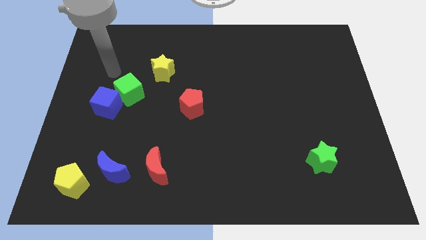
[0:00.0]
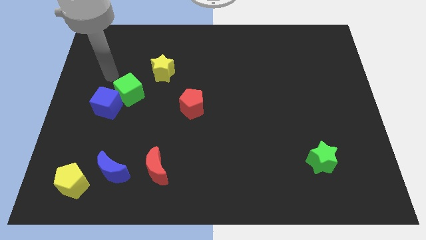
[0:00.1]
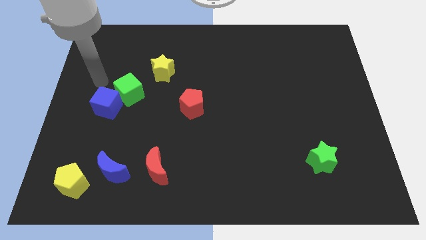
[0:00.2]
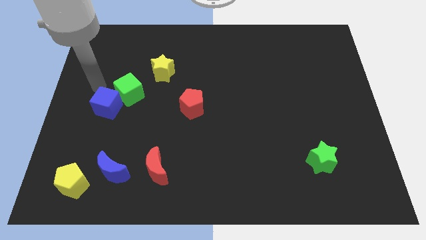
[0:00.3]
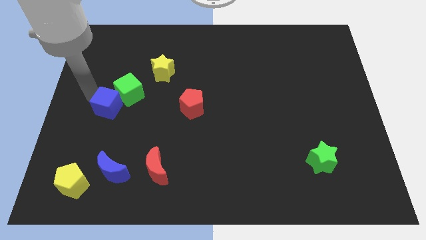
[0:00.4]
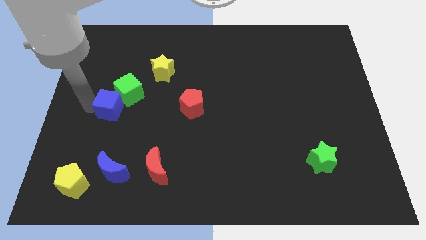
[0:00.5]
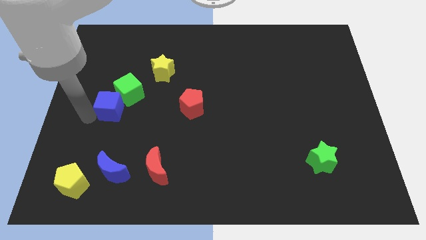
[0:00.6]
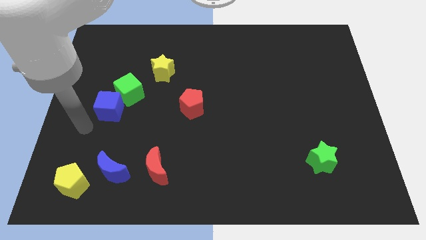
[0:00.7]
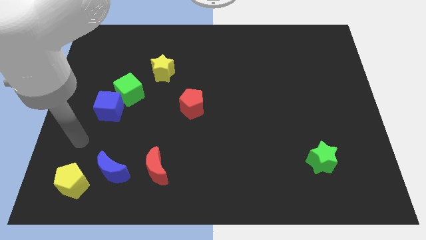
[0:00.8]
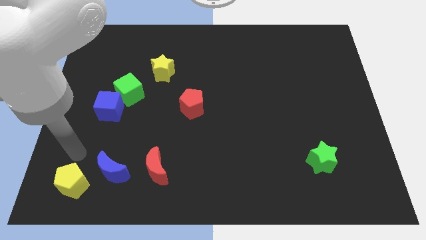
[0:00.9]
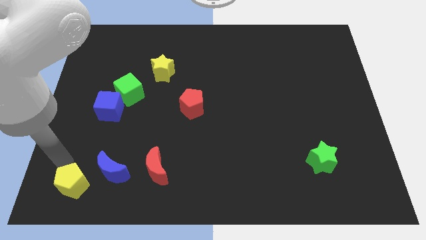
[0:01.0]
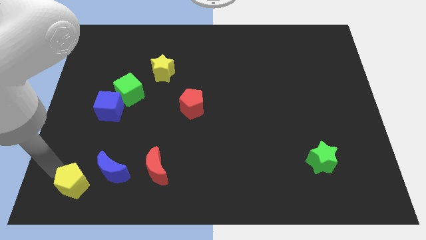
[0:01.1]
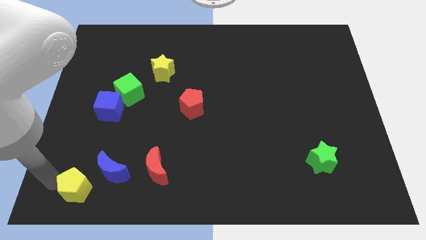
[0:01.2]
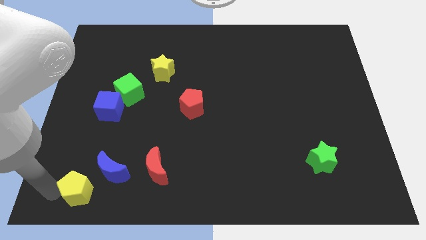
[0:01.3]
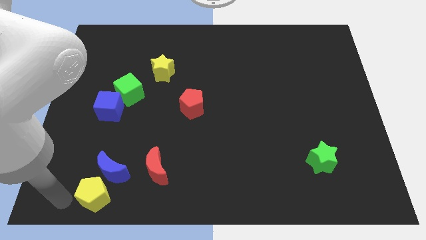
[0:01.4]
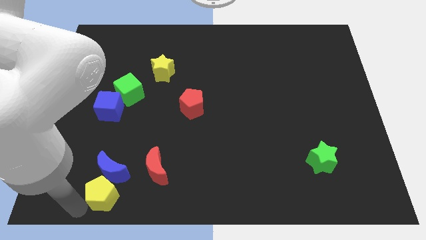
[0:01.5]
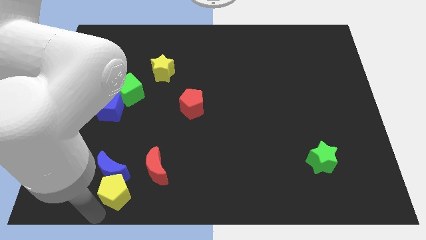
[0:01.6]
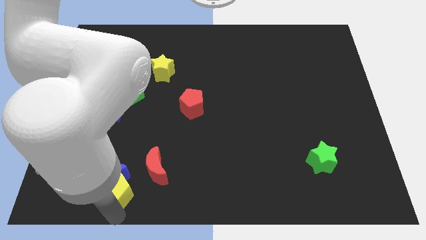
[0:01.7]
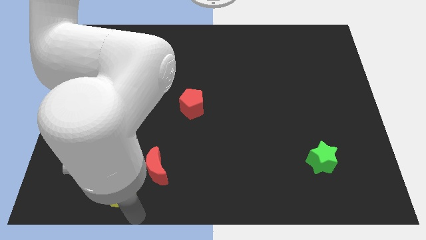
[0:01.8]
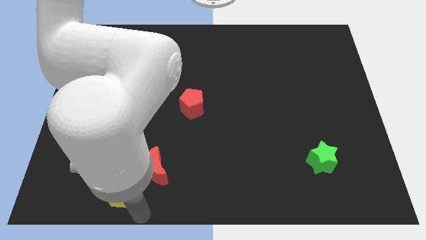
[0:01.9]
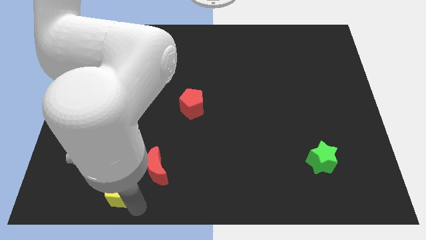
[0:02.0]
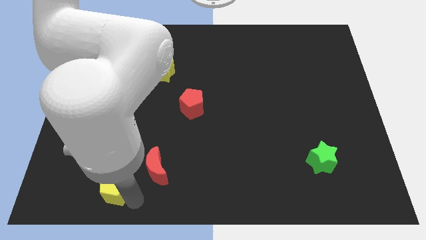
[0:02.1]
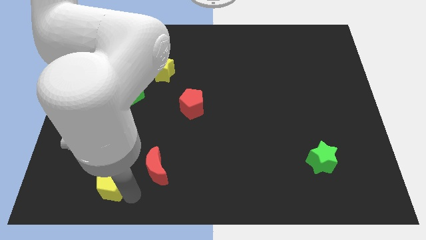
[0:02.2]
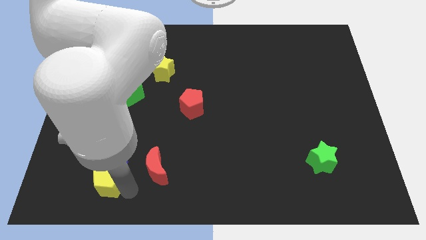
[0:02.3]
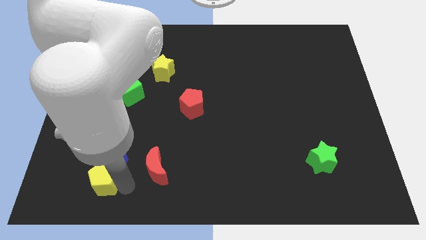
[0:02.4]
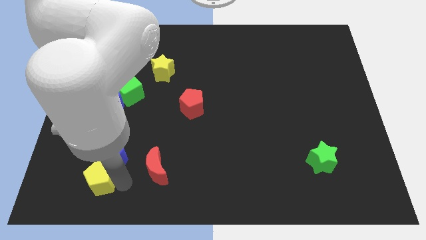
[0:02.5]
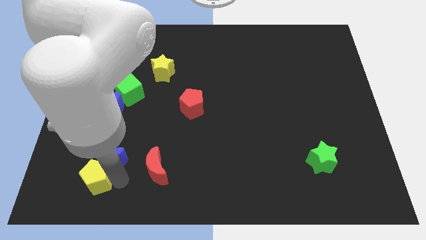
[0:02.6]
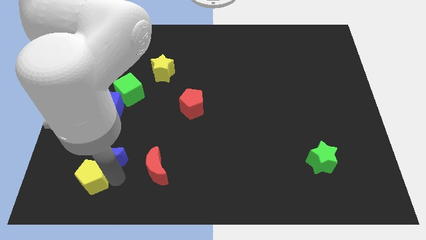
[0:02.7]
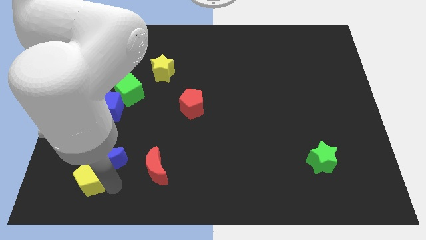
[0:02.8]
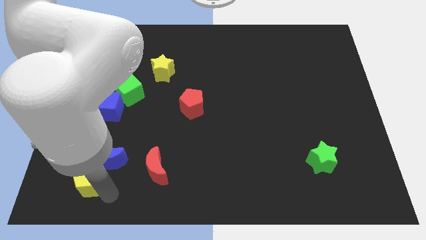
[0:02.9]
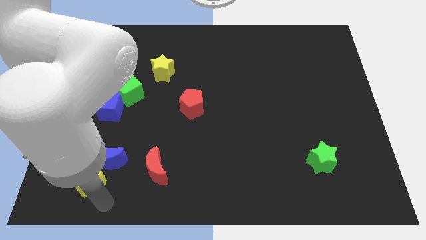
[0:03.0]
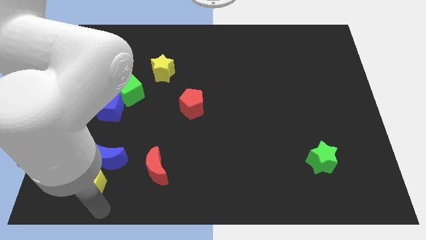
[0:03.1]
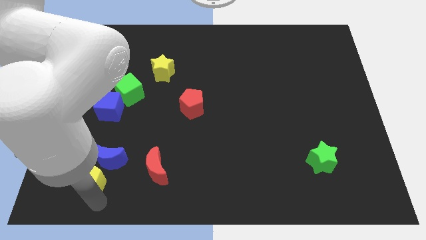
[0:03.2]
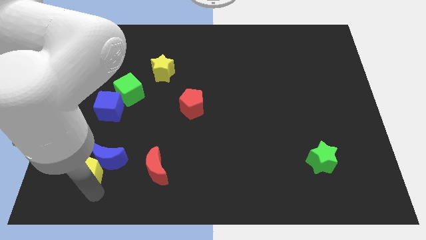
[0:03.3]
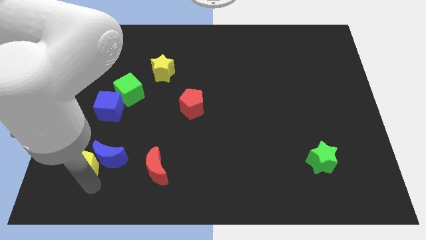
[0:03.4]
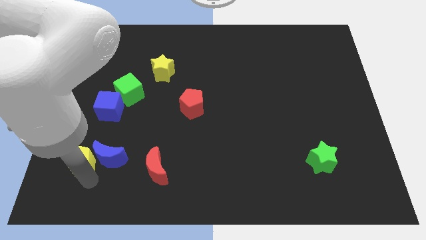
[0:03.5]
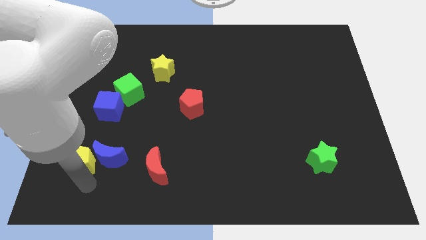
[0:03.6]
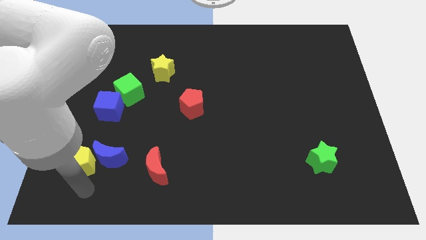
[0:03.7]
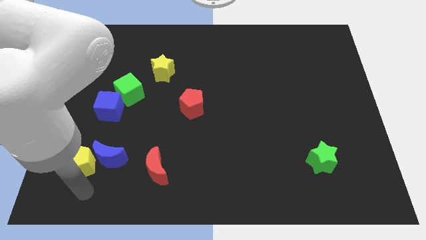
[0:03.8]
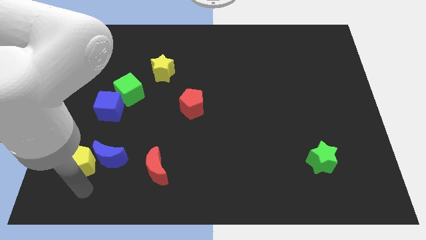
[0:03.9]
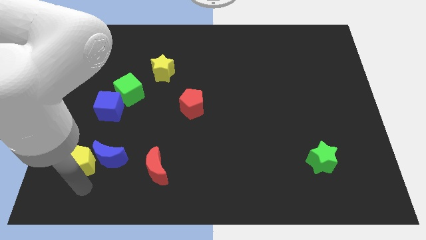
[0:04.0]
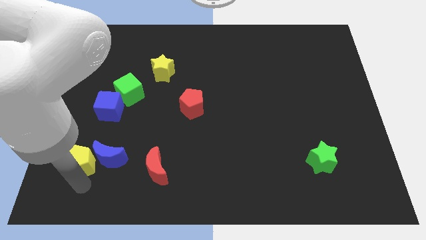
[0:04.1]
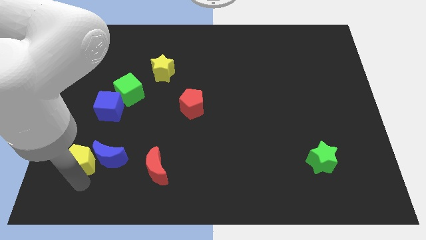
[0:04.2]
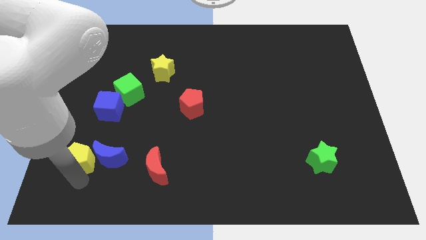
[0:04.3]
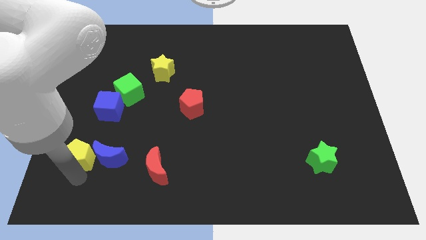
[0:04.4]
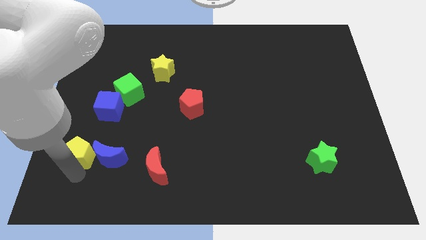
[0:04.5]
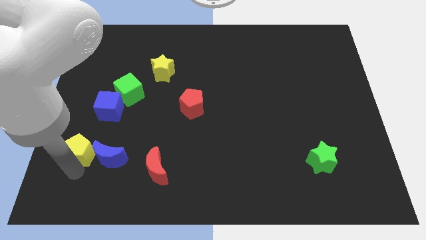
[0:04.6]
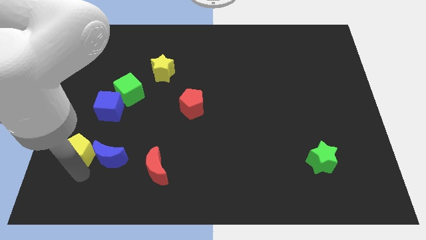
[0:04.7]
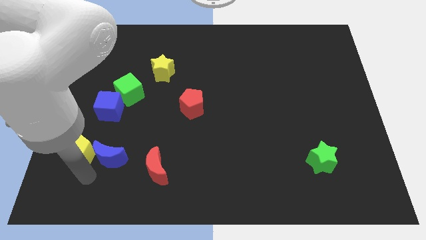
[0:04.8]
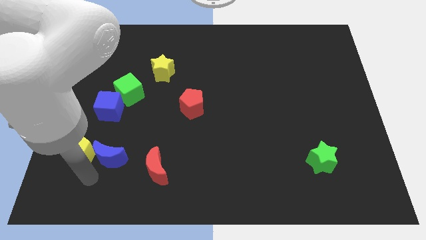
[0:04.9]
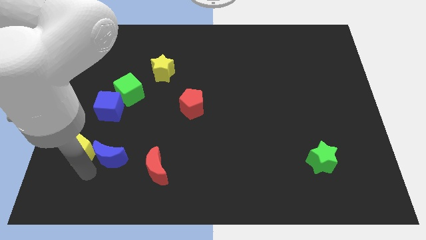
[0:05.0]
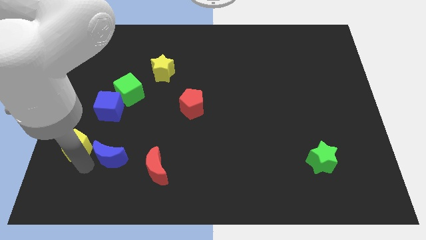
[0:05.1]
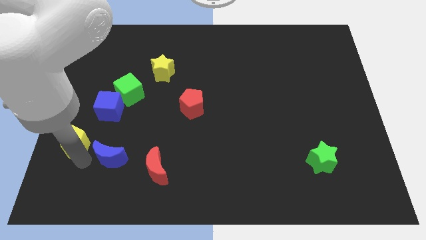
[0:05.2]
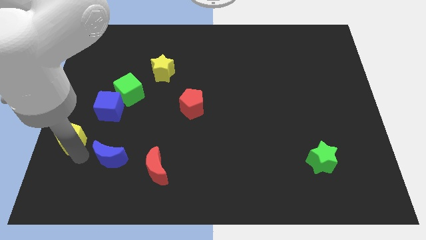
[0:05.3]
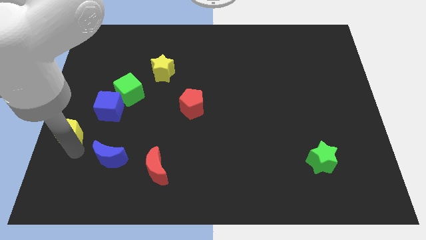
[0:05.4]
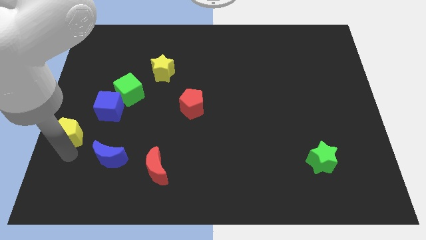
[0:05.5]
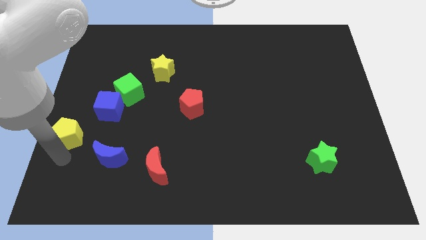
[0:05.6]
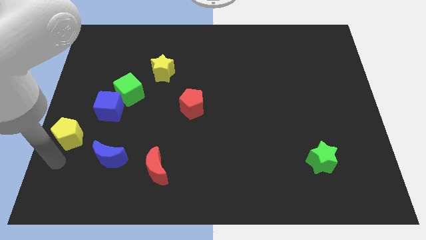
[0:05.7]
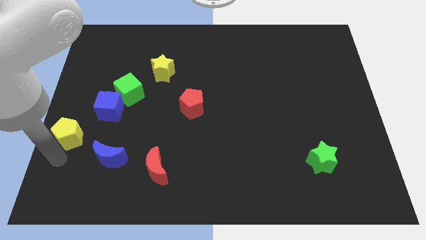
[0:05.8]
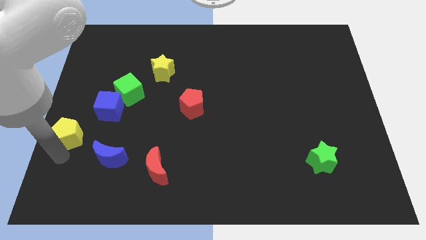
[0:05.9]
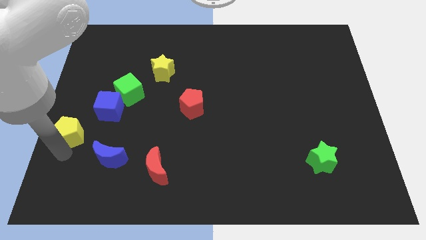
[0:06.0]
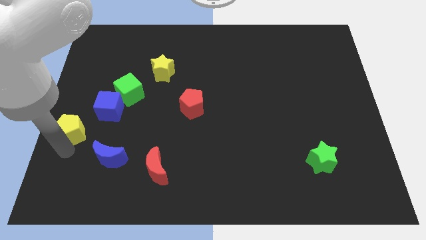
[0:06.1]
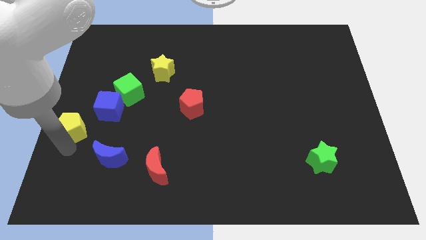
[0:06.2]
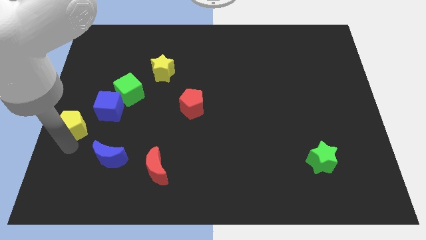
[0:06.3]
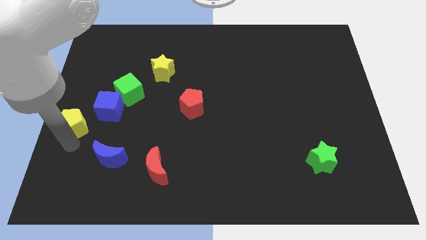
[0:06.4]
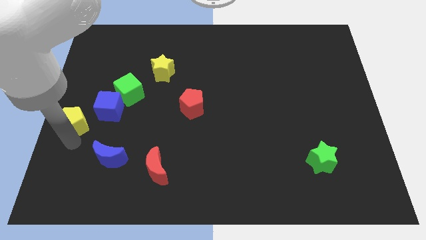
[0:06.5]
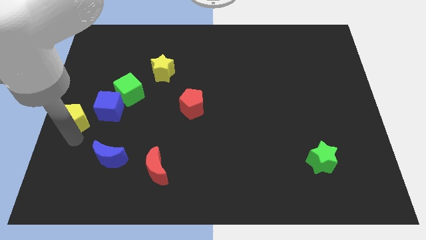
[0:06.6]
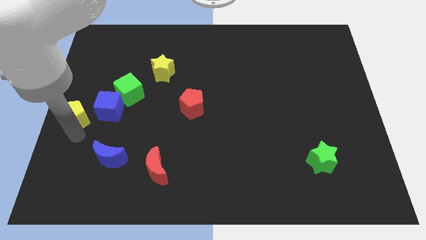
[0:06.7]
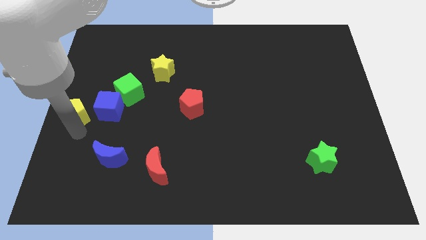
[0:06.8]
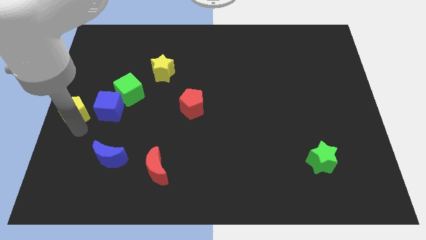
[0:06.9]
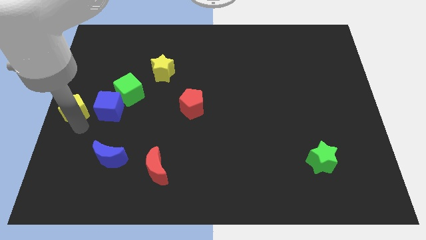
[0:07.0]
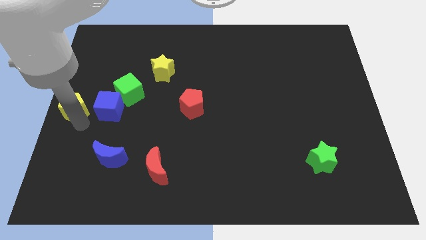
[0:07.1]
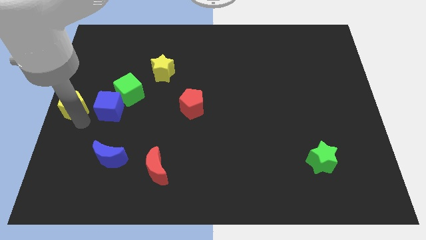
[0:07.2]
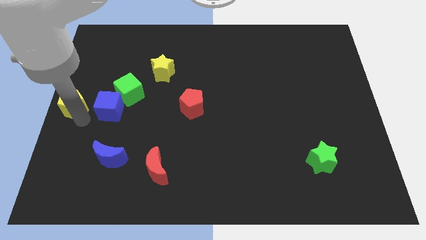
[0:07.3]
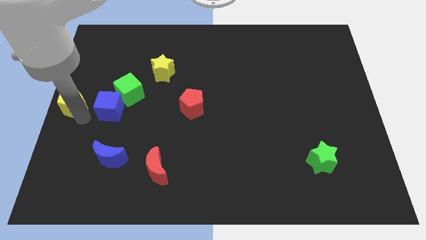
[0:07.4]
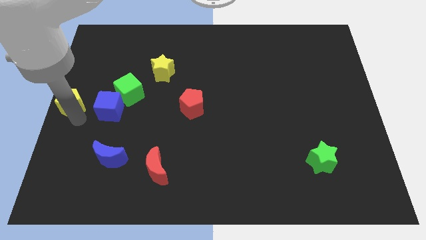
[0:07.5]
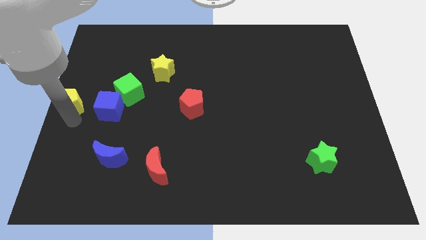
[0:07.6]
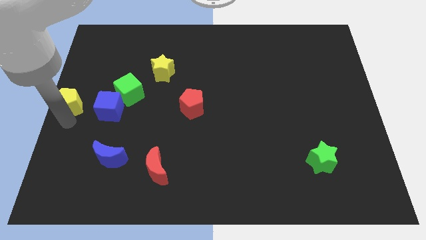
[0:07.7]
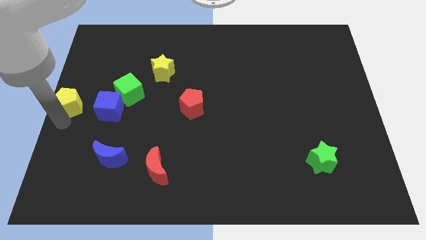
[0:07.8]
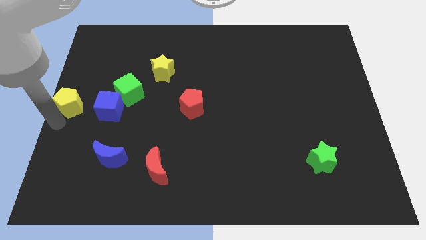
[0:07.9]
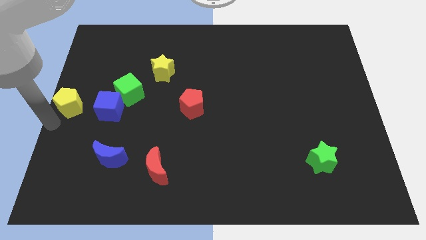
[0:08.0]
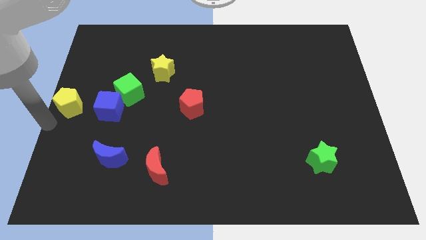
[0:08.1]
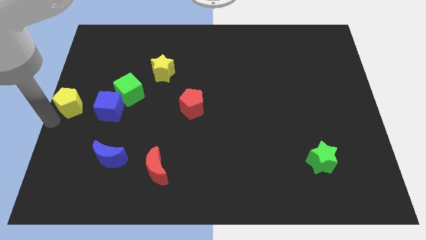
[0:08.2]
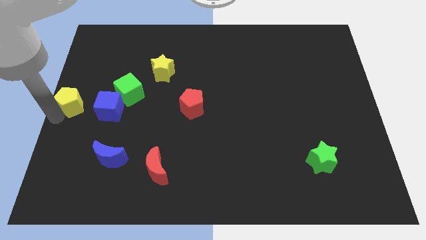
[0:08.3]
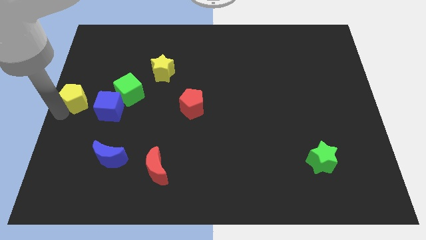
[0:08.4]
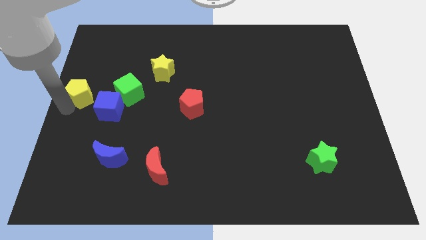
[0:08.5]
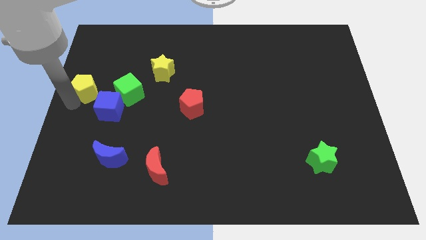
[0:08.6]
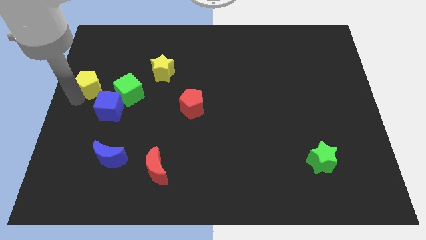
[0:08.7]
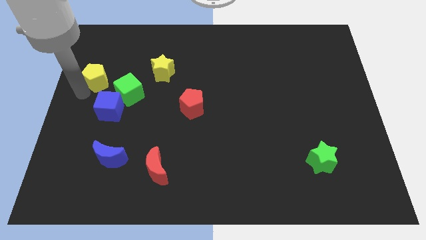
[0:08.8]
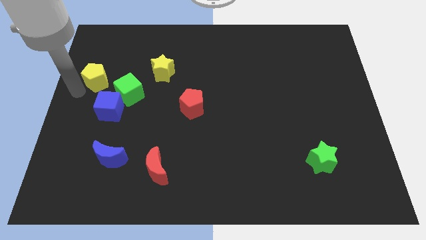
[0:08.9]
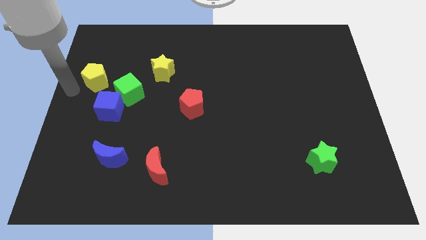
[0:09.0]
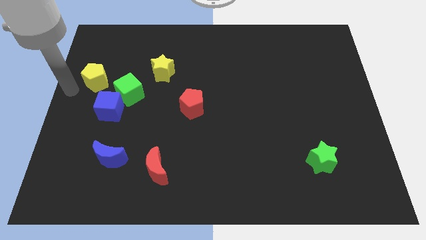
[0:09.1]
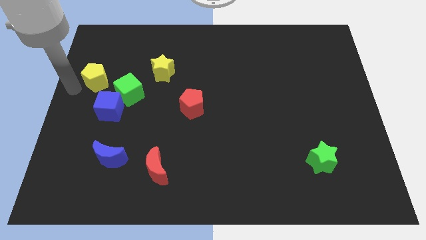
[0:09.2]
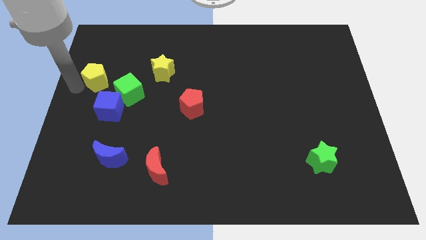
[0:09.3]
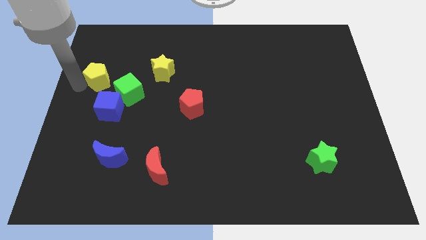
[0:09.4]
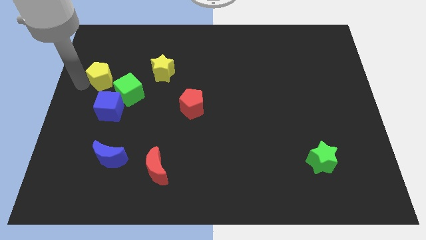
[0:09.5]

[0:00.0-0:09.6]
move the yellow pentagon left of the yellow star
